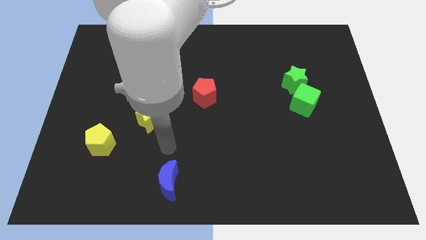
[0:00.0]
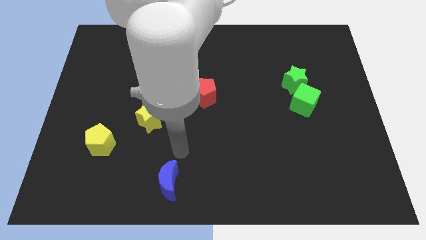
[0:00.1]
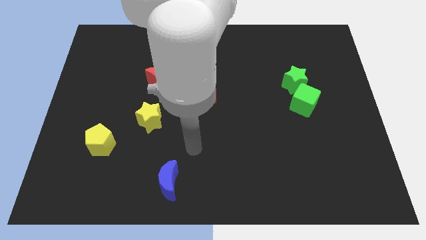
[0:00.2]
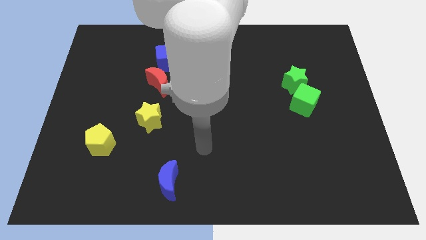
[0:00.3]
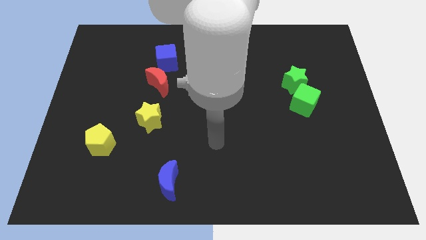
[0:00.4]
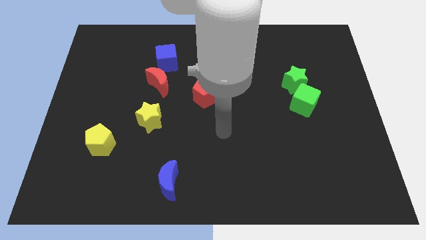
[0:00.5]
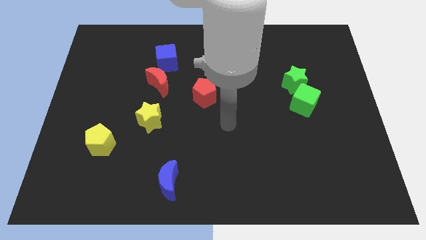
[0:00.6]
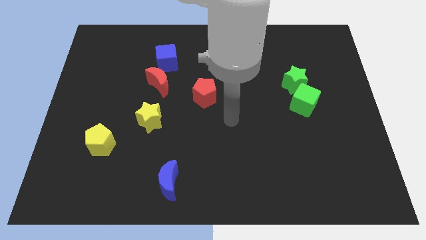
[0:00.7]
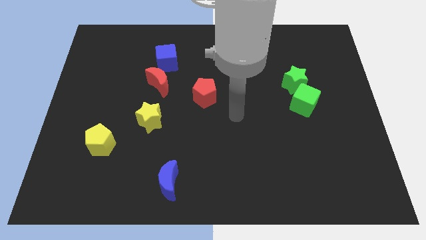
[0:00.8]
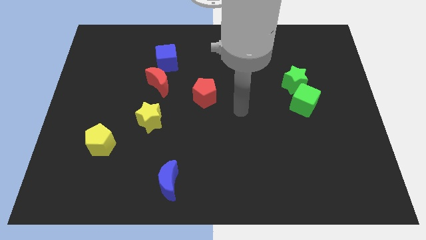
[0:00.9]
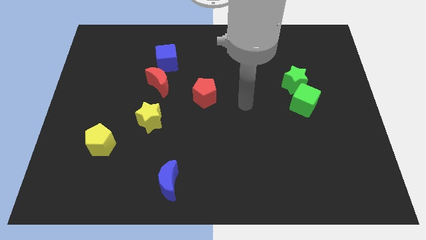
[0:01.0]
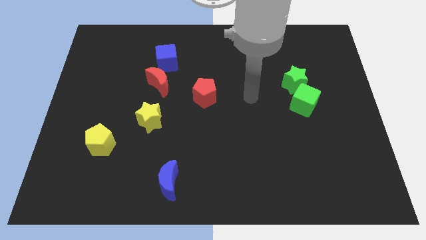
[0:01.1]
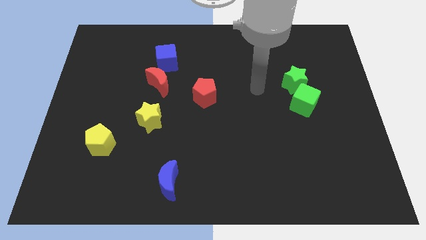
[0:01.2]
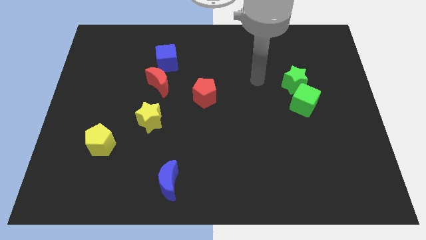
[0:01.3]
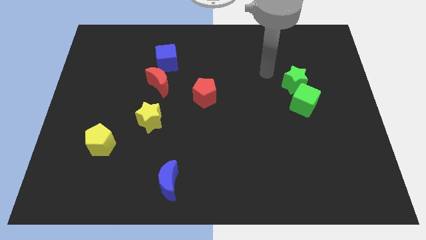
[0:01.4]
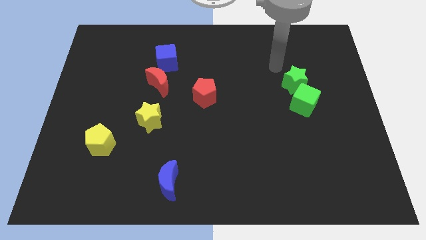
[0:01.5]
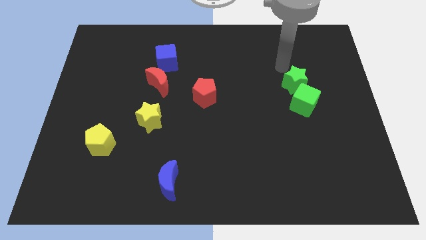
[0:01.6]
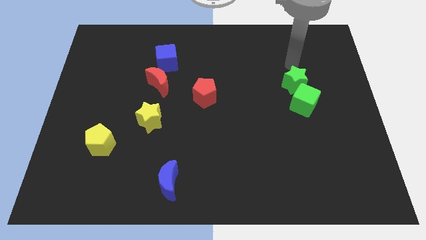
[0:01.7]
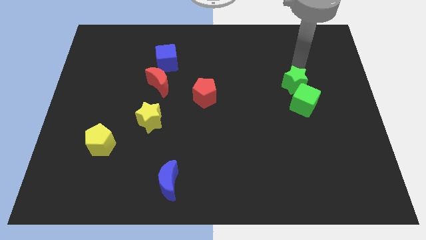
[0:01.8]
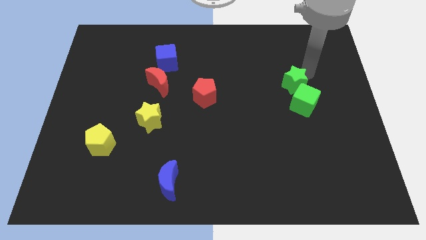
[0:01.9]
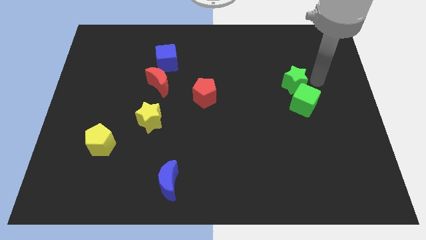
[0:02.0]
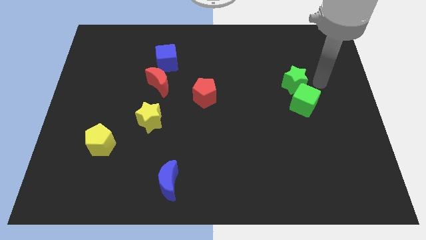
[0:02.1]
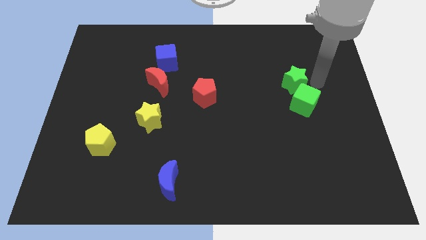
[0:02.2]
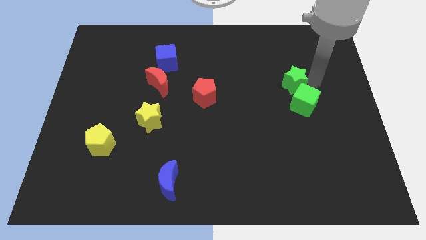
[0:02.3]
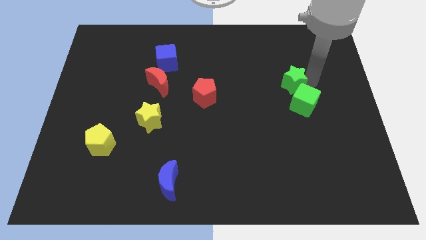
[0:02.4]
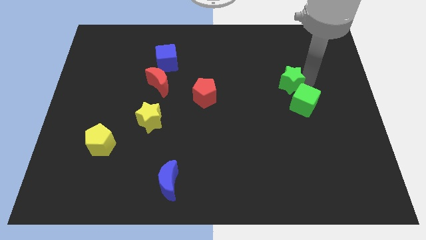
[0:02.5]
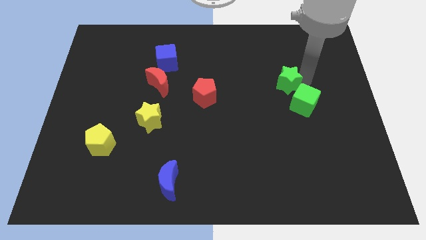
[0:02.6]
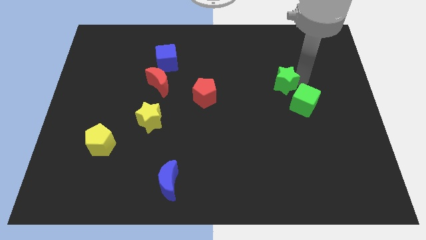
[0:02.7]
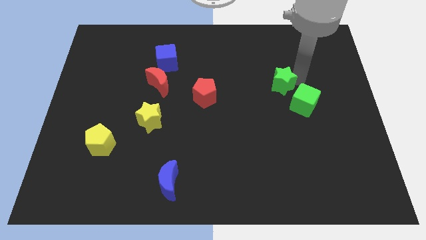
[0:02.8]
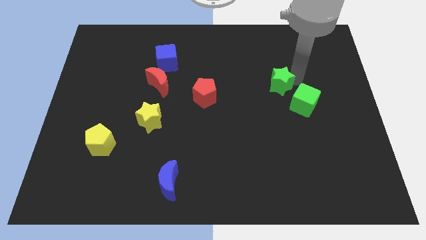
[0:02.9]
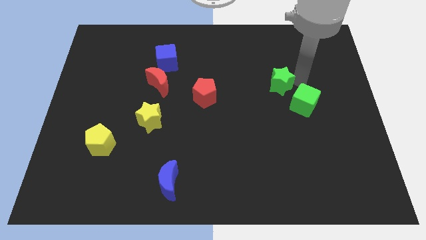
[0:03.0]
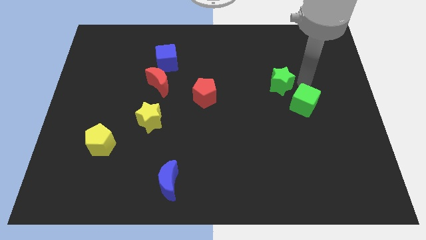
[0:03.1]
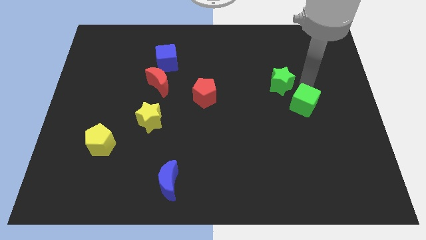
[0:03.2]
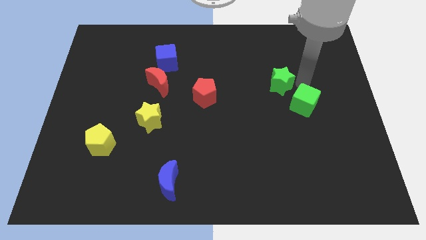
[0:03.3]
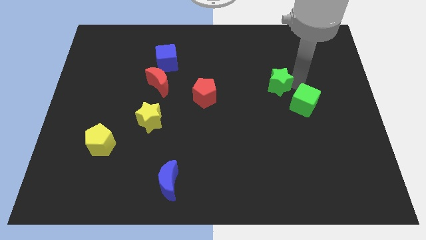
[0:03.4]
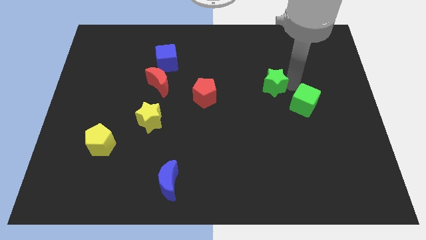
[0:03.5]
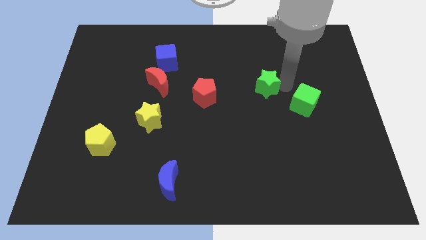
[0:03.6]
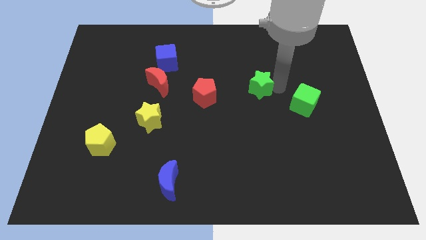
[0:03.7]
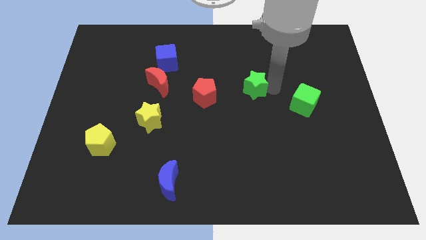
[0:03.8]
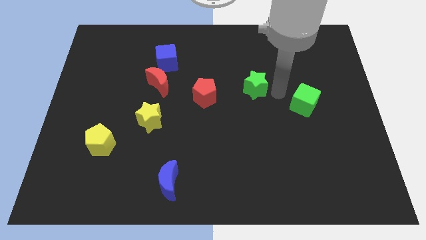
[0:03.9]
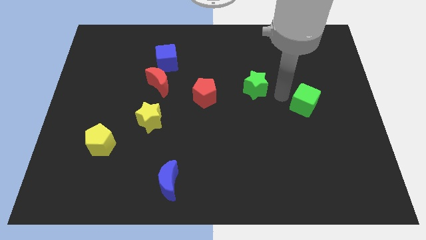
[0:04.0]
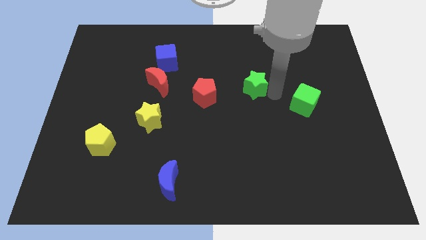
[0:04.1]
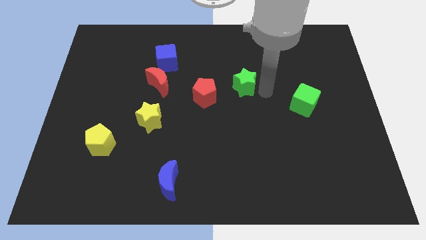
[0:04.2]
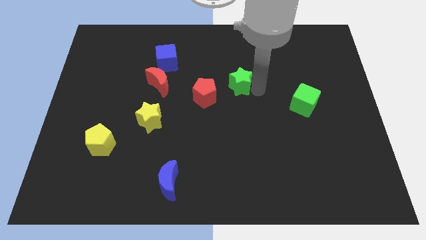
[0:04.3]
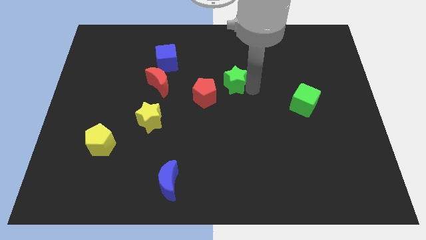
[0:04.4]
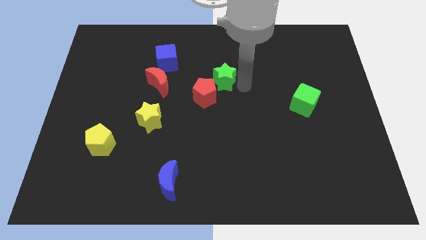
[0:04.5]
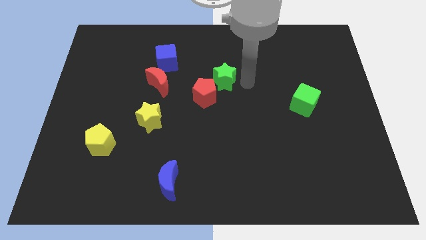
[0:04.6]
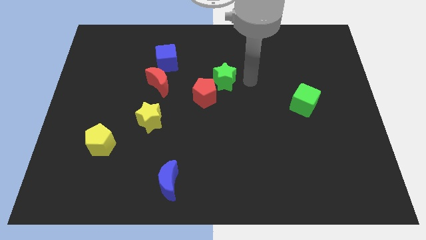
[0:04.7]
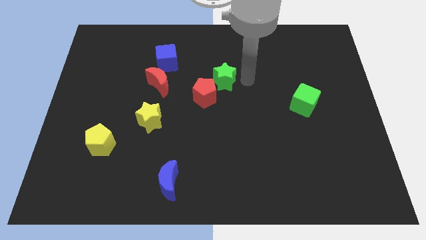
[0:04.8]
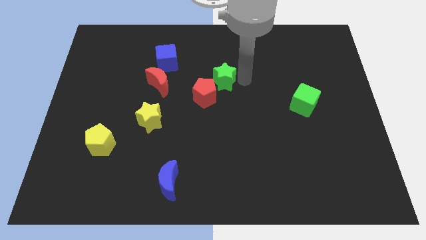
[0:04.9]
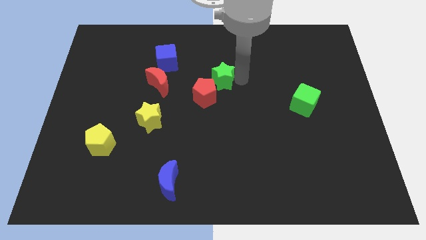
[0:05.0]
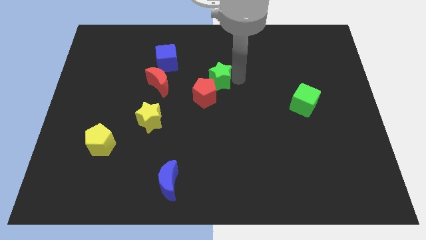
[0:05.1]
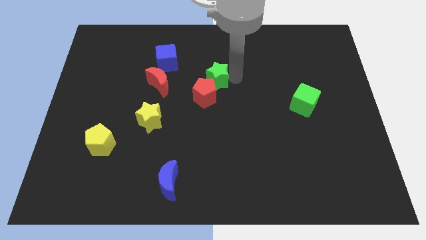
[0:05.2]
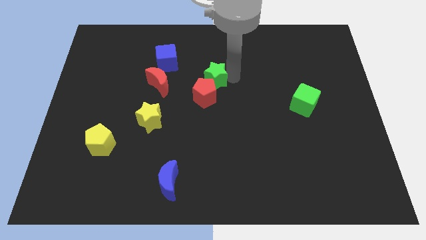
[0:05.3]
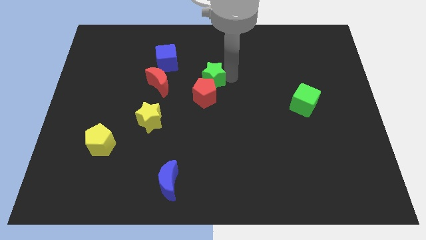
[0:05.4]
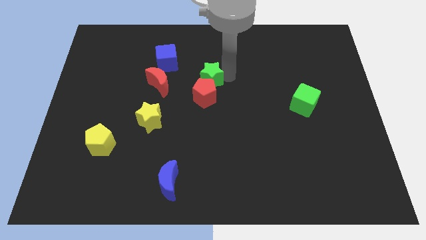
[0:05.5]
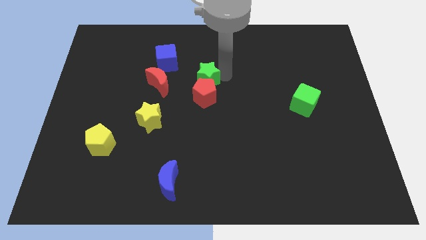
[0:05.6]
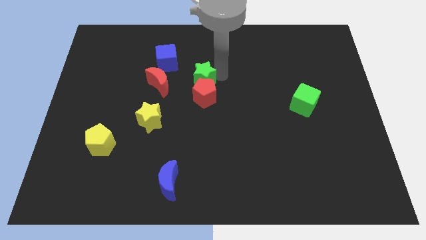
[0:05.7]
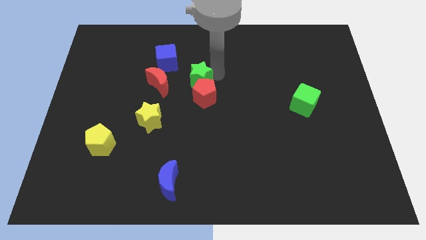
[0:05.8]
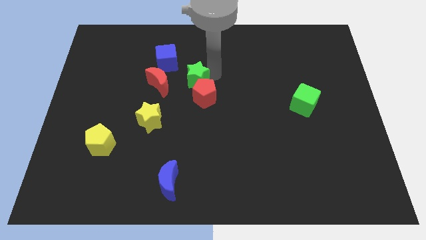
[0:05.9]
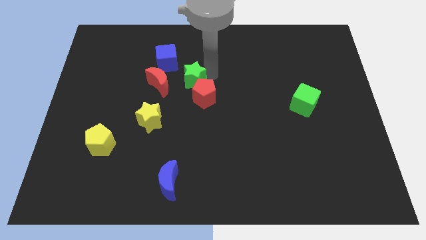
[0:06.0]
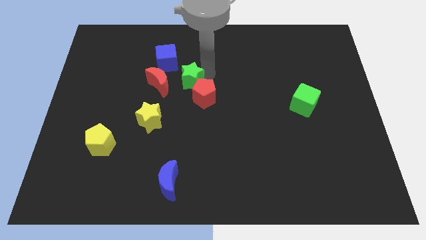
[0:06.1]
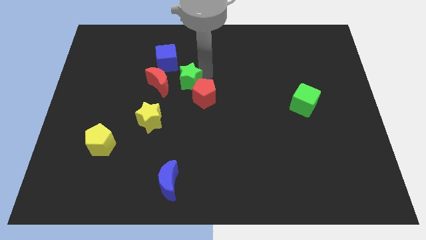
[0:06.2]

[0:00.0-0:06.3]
put the green star left of the red pentagon

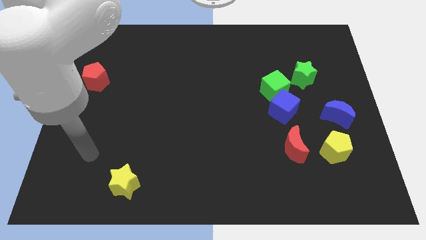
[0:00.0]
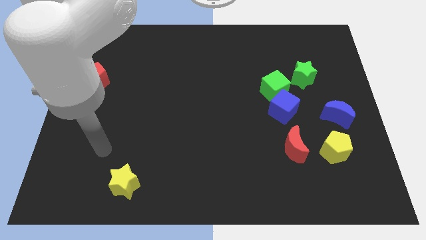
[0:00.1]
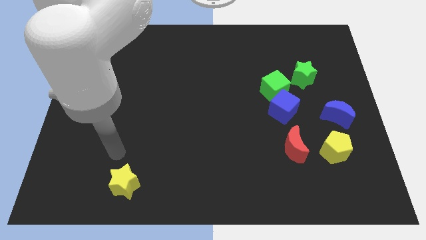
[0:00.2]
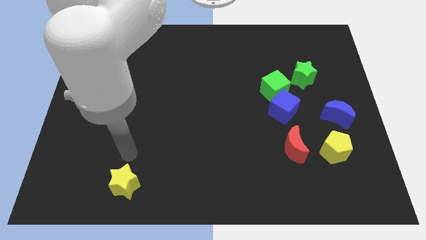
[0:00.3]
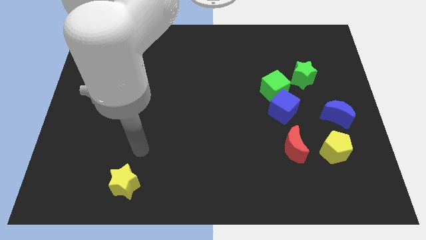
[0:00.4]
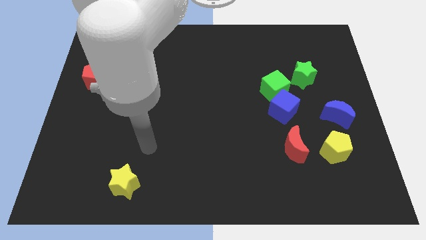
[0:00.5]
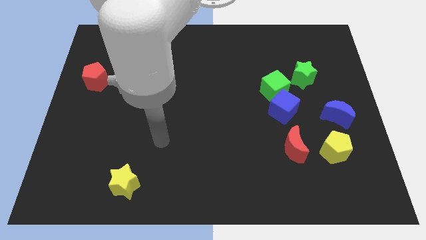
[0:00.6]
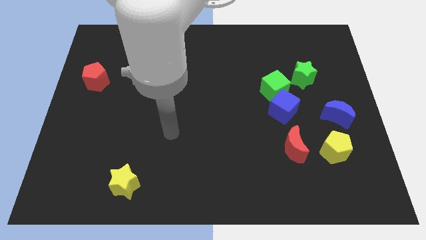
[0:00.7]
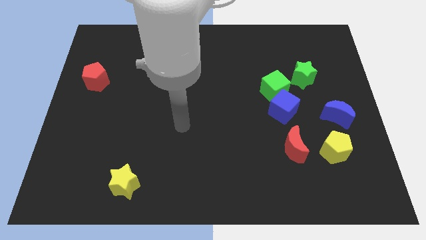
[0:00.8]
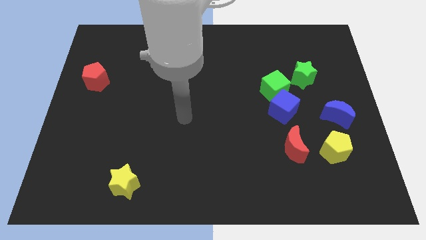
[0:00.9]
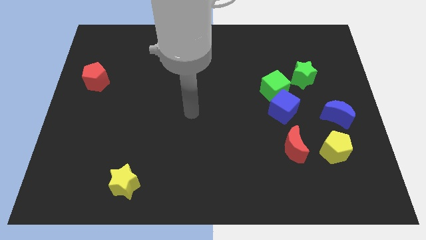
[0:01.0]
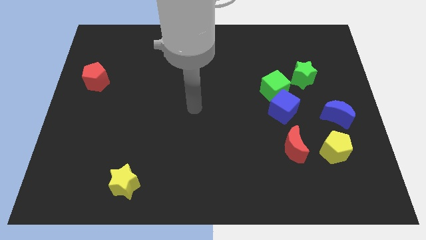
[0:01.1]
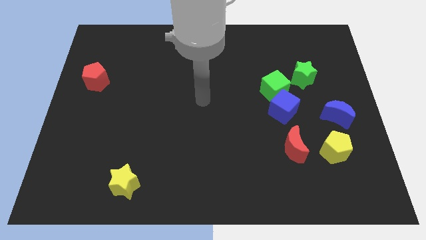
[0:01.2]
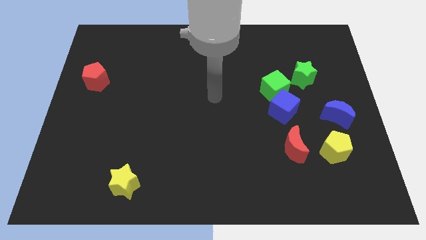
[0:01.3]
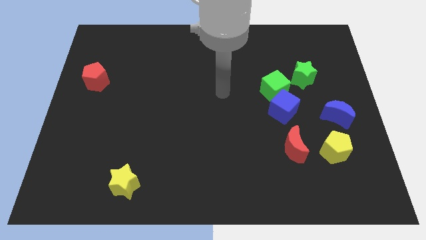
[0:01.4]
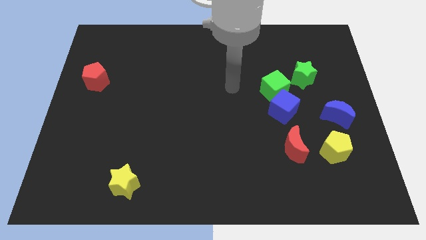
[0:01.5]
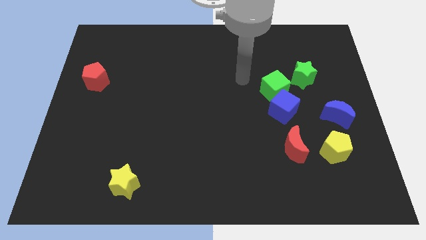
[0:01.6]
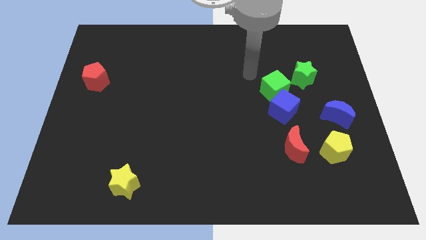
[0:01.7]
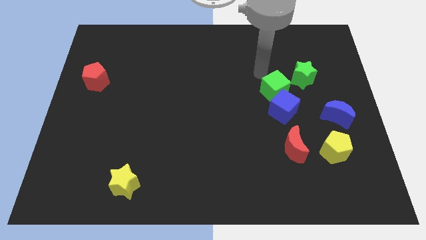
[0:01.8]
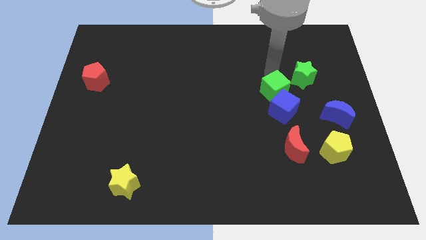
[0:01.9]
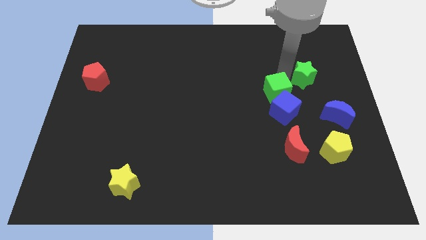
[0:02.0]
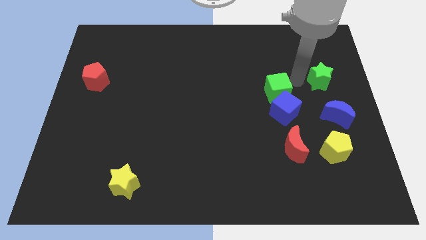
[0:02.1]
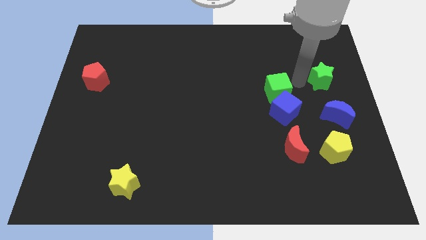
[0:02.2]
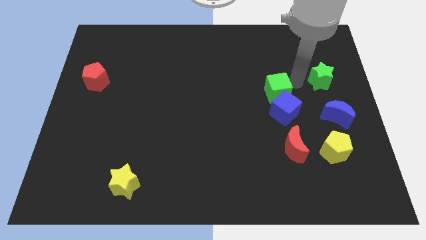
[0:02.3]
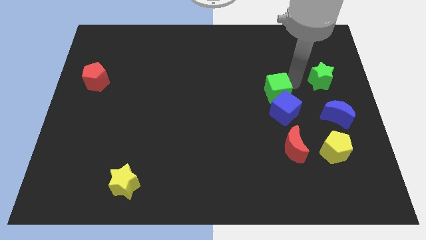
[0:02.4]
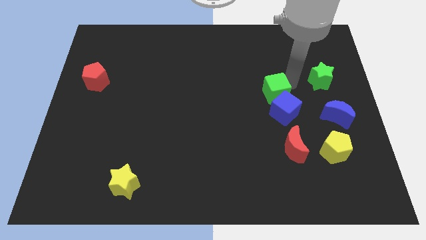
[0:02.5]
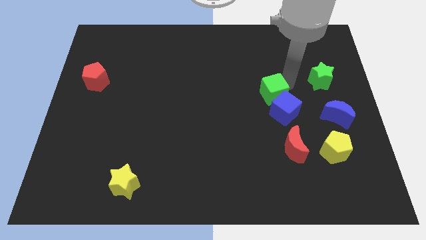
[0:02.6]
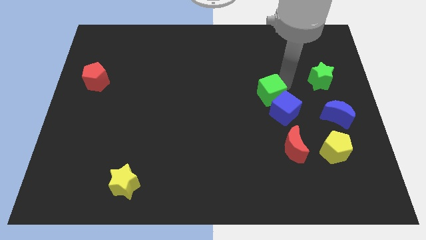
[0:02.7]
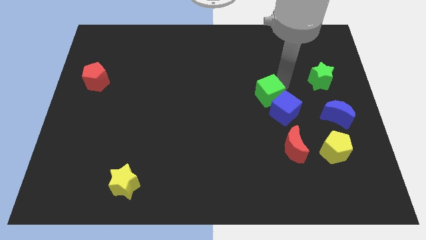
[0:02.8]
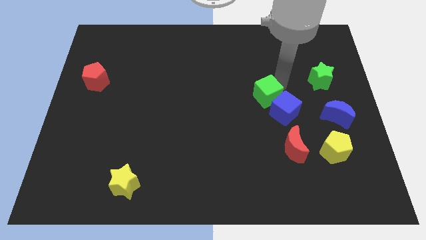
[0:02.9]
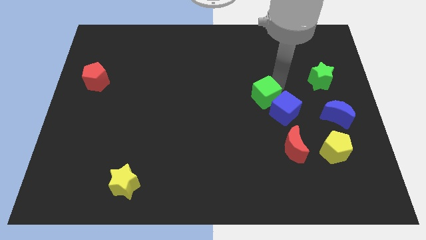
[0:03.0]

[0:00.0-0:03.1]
push the green cube just left of the blue cube
